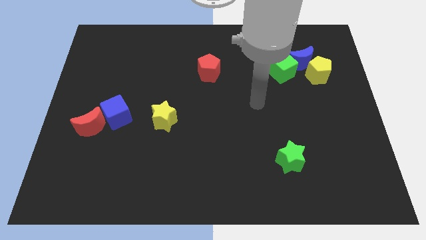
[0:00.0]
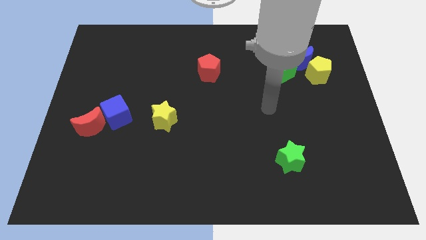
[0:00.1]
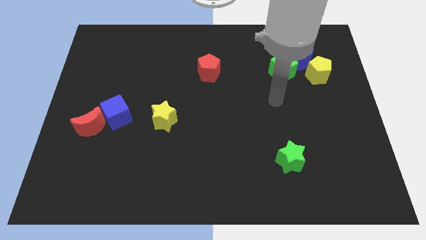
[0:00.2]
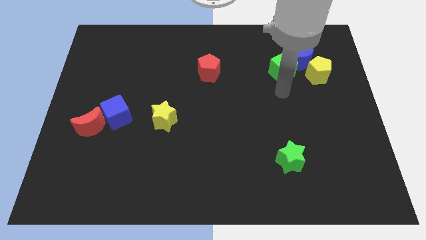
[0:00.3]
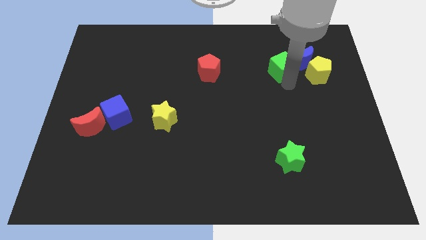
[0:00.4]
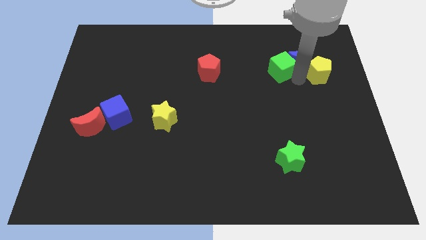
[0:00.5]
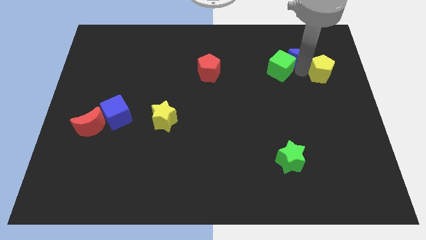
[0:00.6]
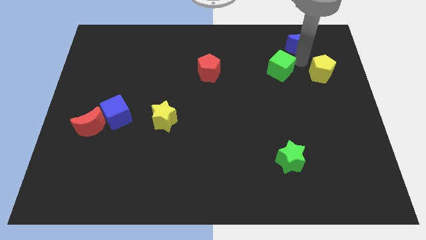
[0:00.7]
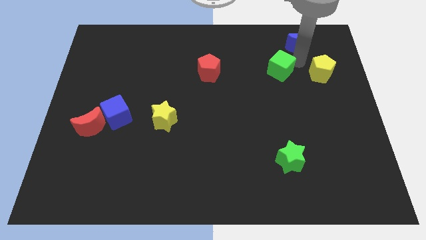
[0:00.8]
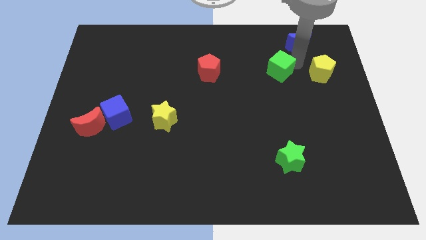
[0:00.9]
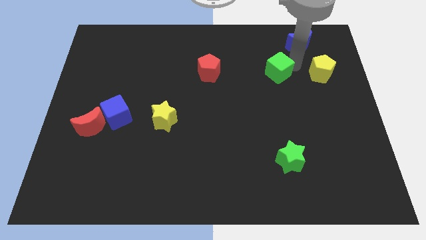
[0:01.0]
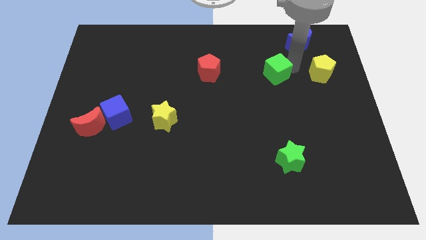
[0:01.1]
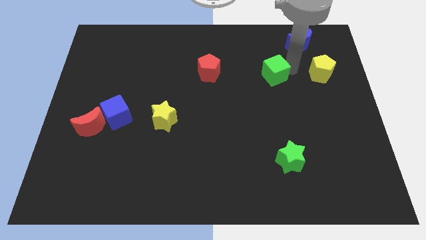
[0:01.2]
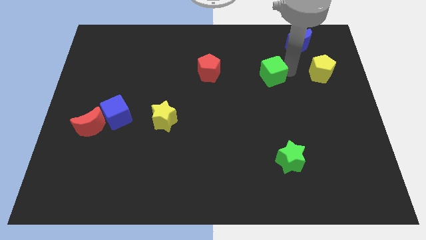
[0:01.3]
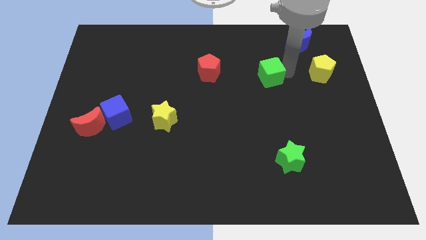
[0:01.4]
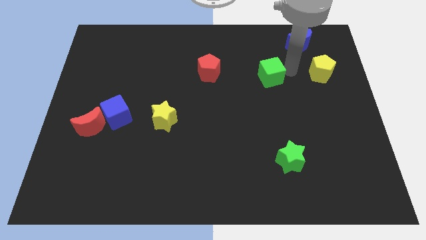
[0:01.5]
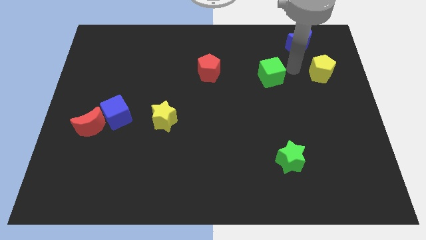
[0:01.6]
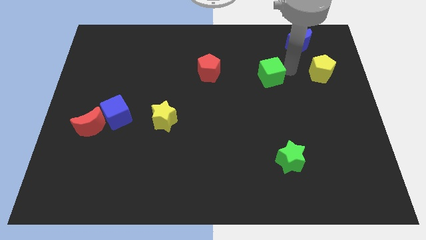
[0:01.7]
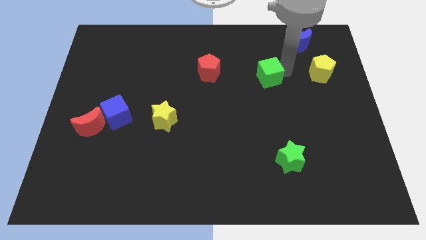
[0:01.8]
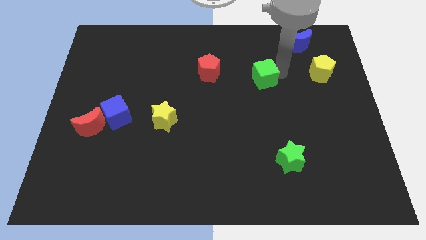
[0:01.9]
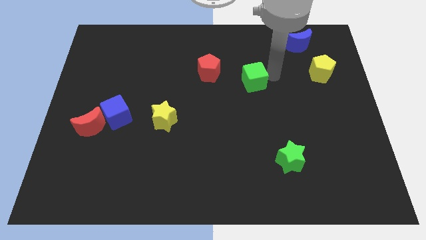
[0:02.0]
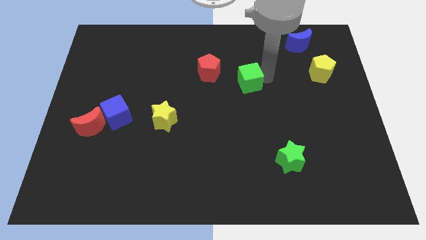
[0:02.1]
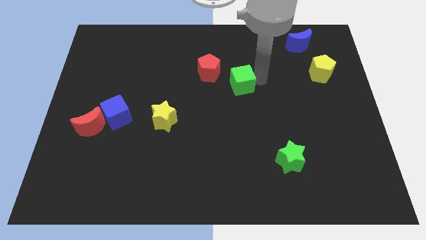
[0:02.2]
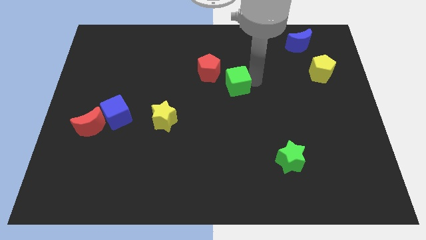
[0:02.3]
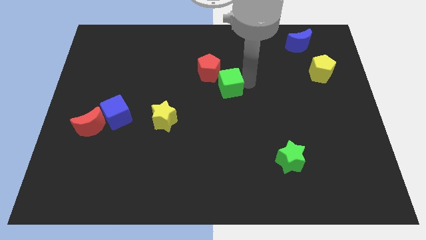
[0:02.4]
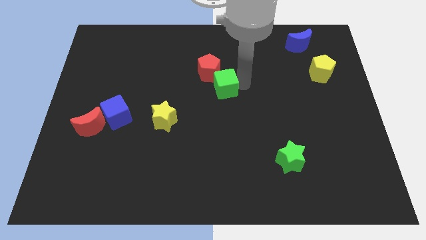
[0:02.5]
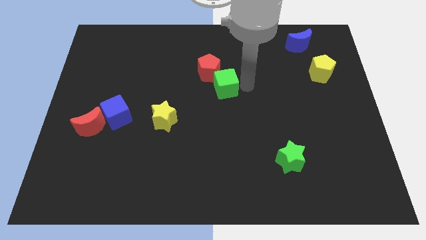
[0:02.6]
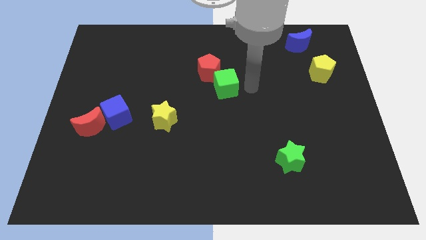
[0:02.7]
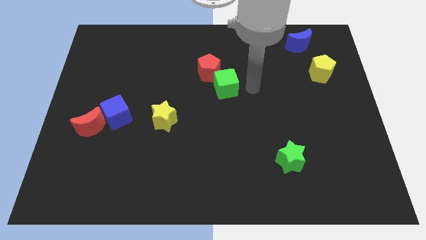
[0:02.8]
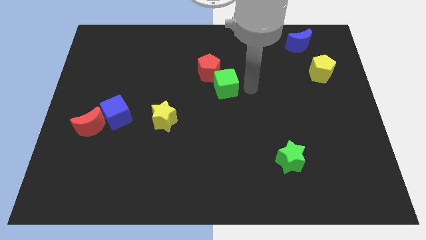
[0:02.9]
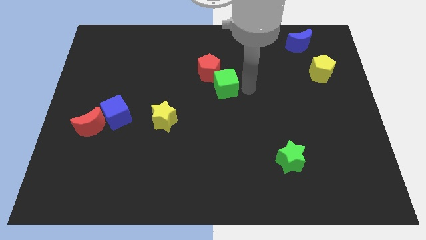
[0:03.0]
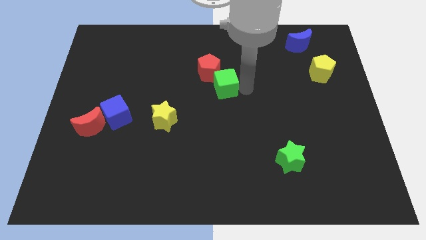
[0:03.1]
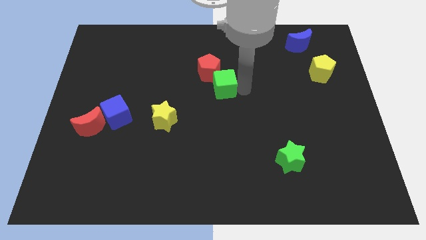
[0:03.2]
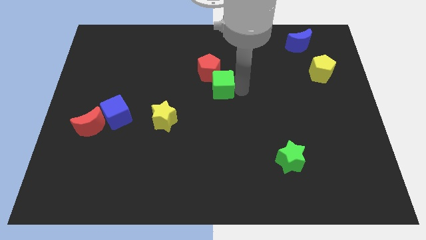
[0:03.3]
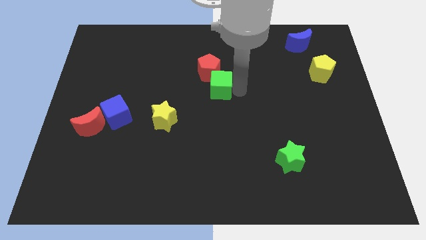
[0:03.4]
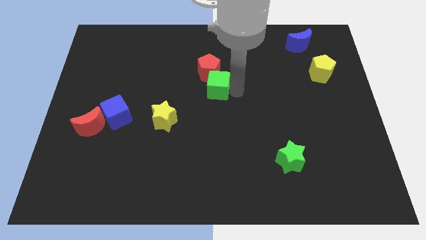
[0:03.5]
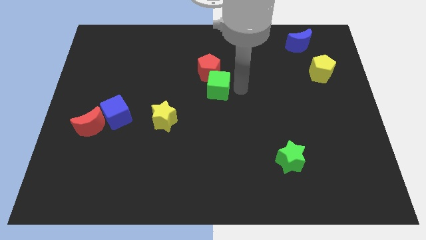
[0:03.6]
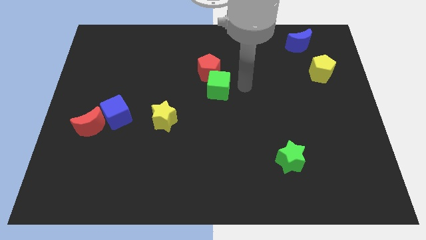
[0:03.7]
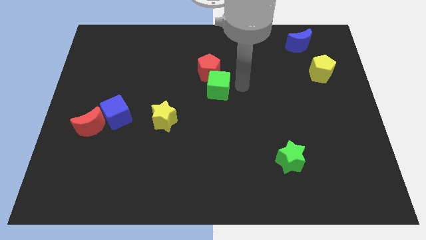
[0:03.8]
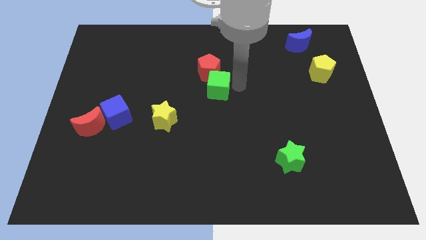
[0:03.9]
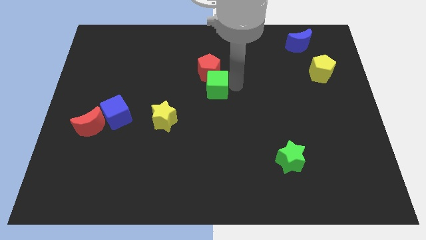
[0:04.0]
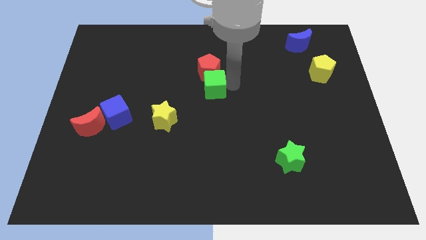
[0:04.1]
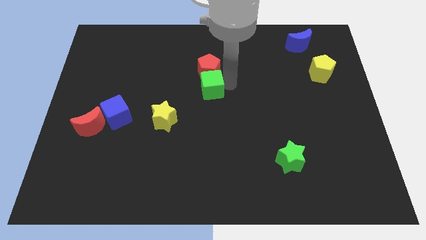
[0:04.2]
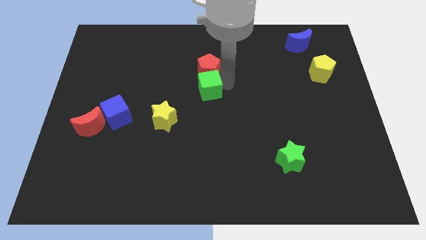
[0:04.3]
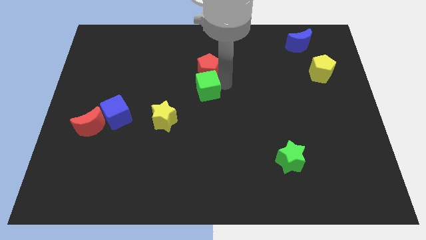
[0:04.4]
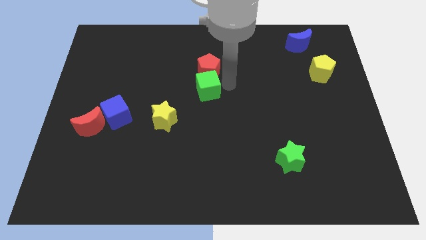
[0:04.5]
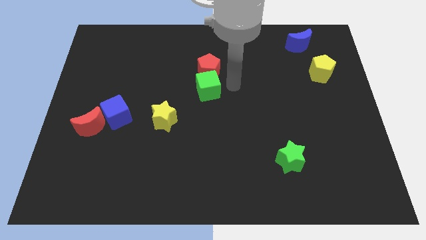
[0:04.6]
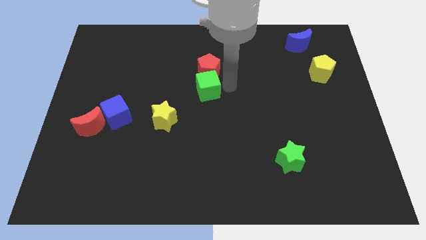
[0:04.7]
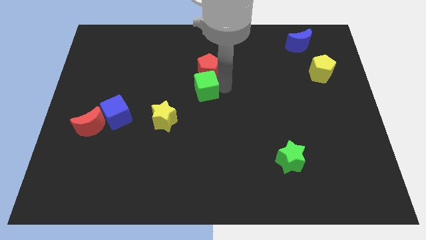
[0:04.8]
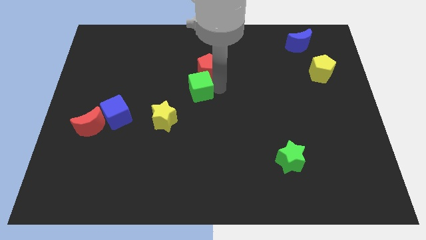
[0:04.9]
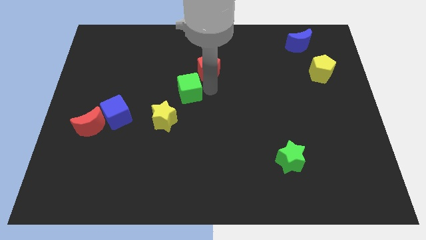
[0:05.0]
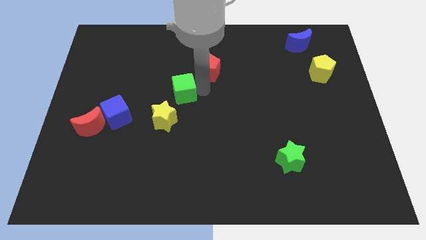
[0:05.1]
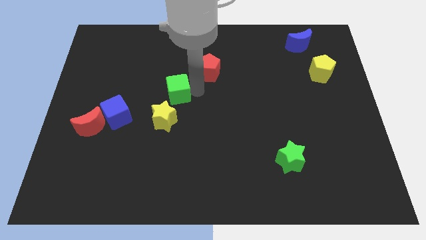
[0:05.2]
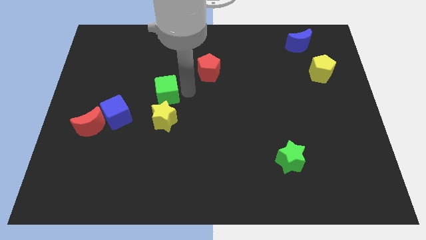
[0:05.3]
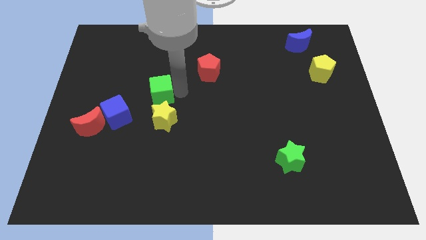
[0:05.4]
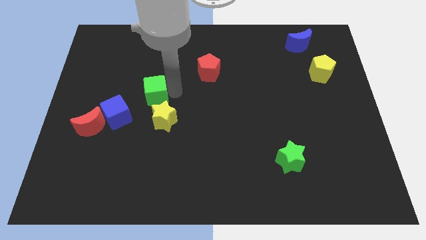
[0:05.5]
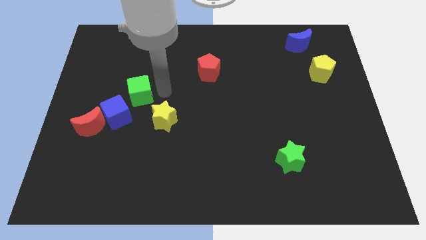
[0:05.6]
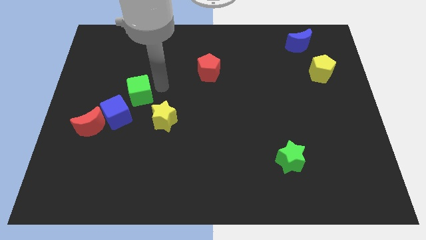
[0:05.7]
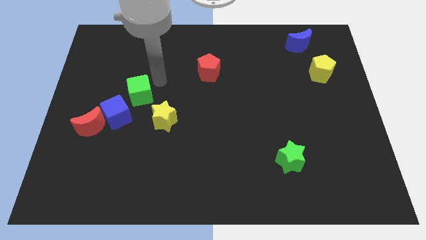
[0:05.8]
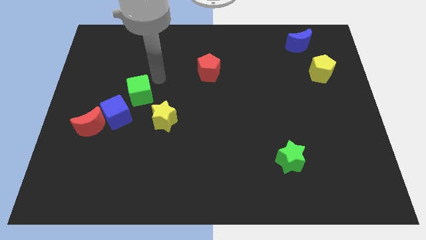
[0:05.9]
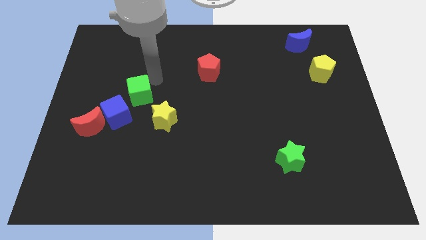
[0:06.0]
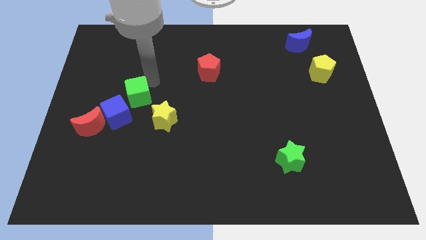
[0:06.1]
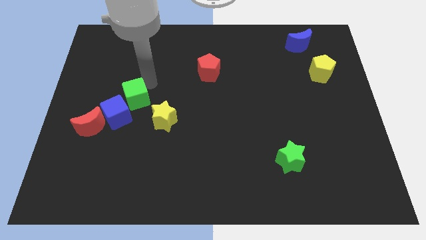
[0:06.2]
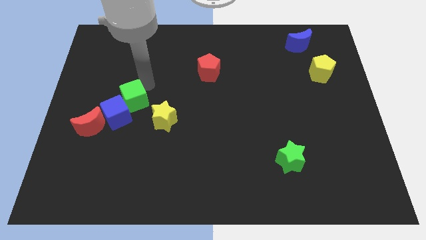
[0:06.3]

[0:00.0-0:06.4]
push the green cube close to the blue cube

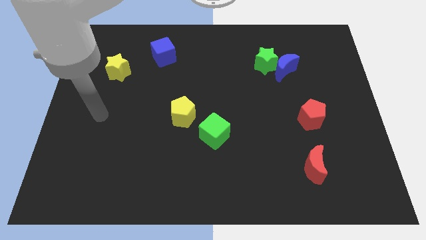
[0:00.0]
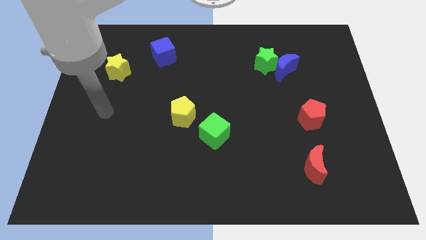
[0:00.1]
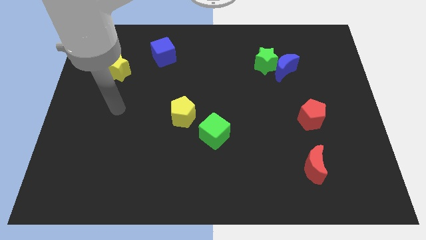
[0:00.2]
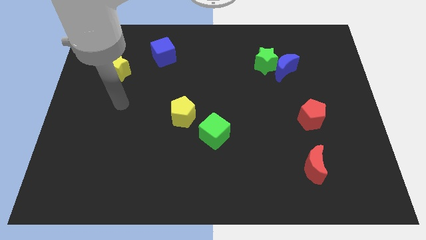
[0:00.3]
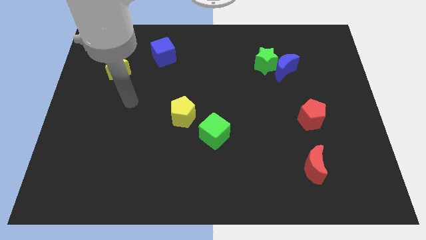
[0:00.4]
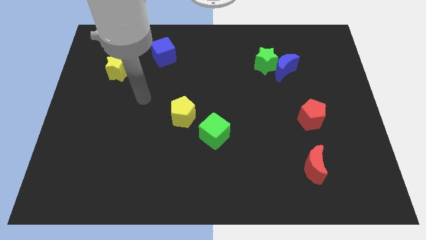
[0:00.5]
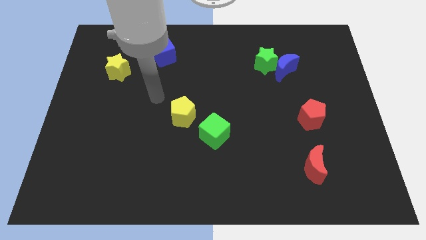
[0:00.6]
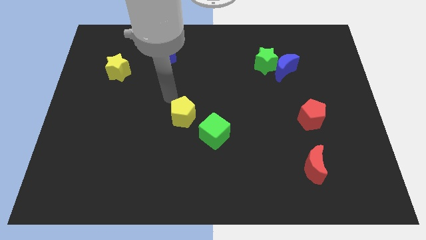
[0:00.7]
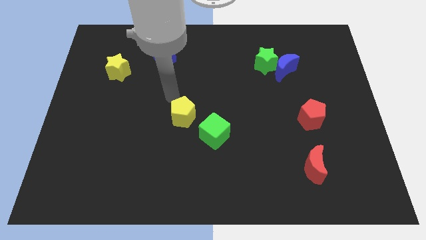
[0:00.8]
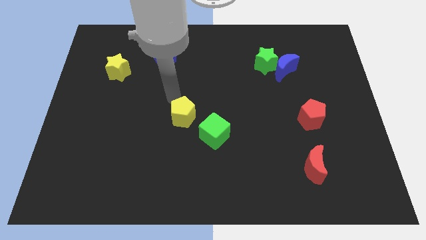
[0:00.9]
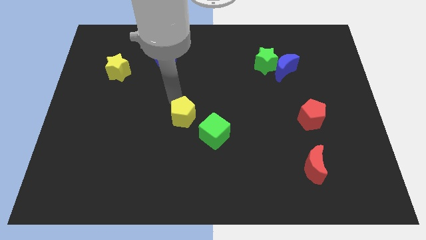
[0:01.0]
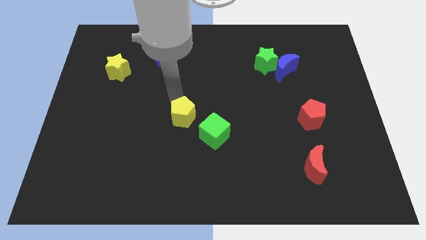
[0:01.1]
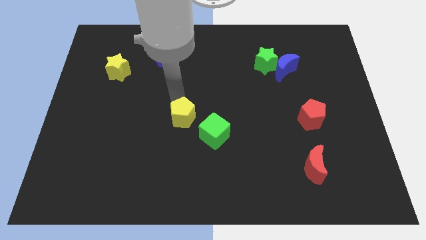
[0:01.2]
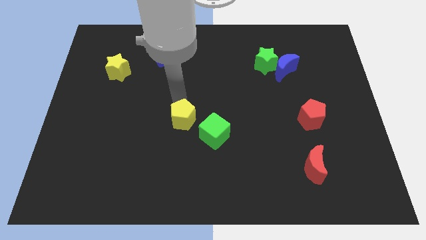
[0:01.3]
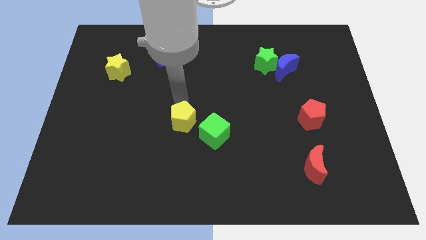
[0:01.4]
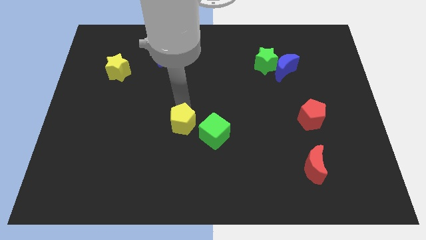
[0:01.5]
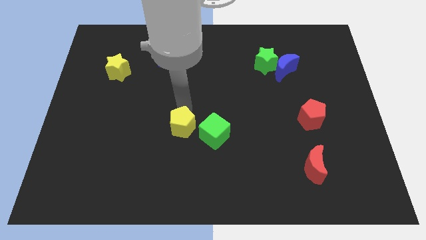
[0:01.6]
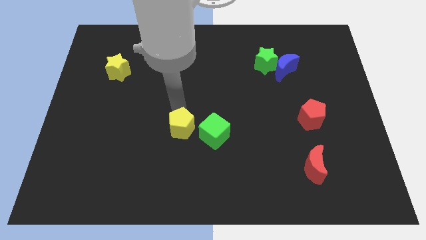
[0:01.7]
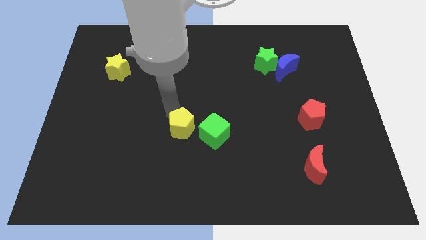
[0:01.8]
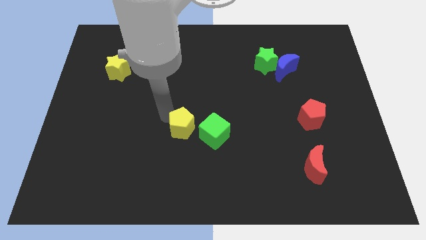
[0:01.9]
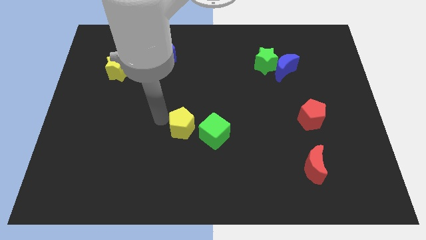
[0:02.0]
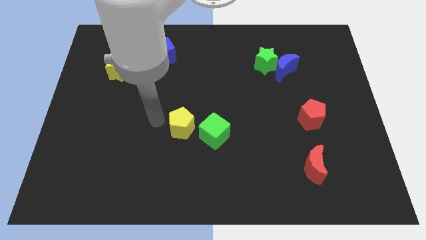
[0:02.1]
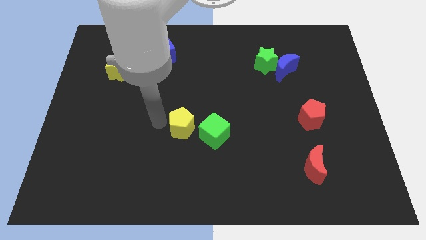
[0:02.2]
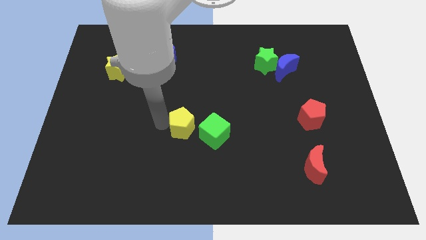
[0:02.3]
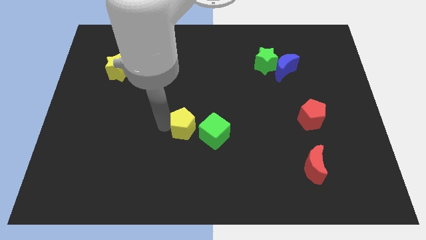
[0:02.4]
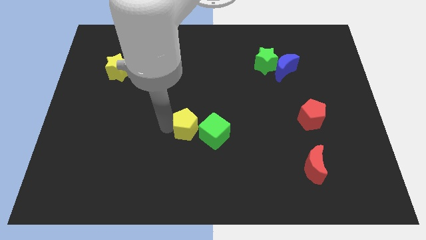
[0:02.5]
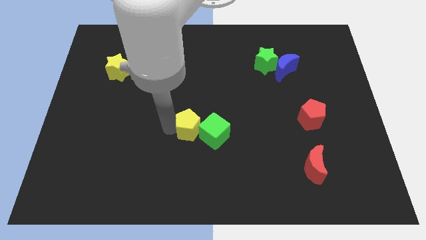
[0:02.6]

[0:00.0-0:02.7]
move the yellow pentagon close to the green cube
